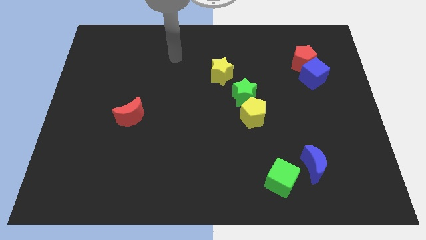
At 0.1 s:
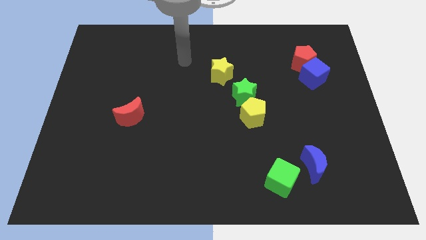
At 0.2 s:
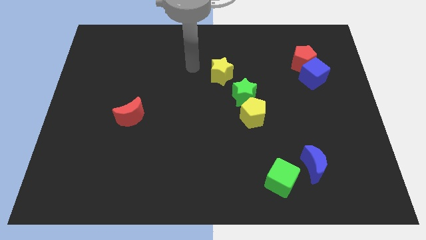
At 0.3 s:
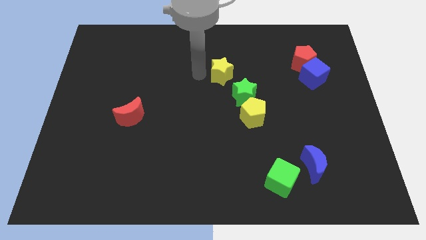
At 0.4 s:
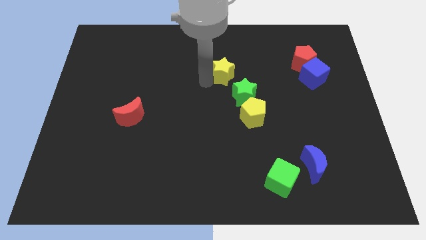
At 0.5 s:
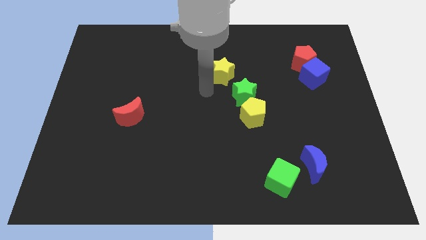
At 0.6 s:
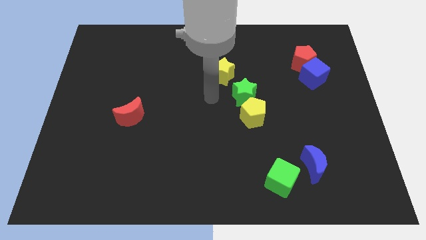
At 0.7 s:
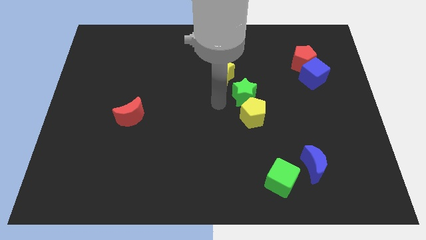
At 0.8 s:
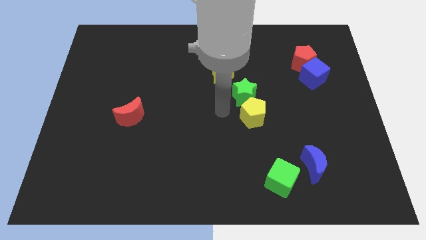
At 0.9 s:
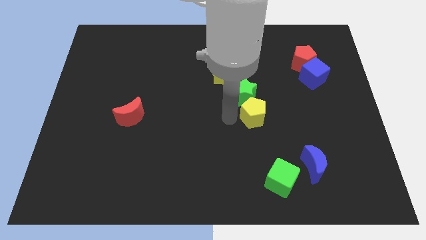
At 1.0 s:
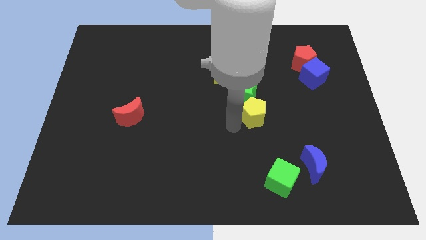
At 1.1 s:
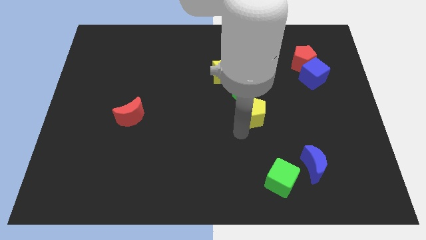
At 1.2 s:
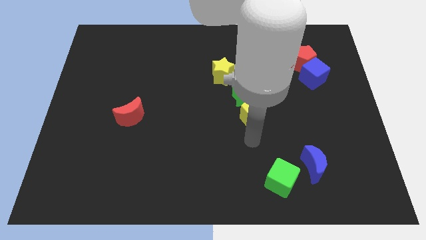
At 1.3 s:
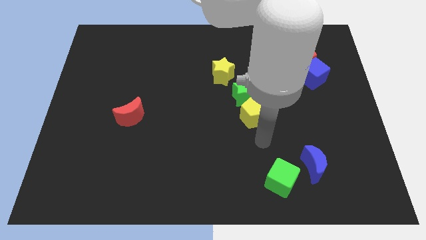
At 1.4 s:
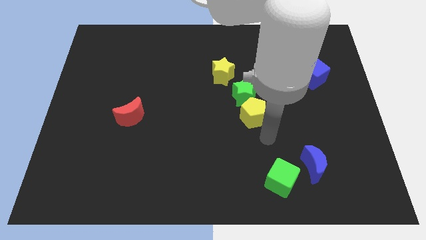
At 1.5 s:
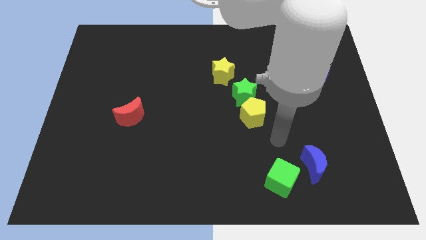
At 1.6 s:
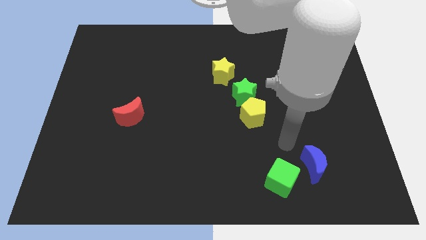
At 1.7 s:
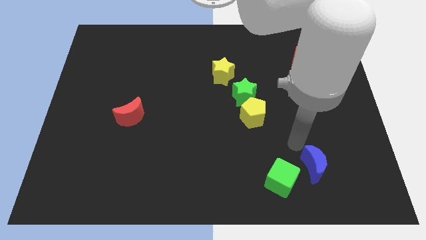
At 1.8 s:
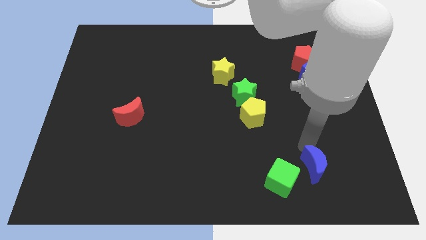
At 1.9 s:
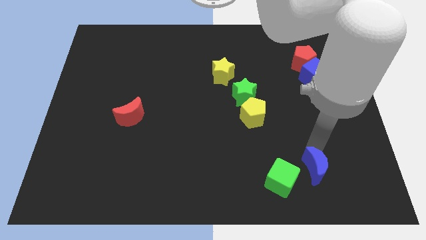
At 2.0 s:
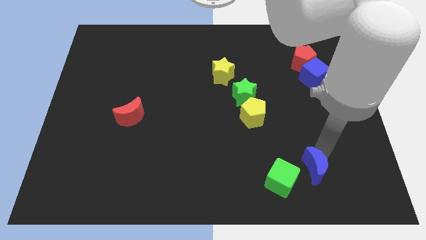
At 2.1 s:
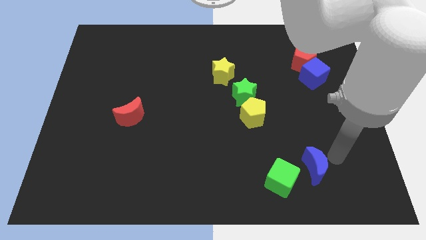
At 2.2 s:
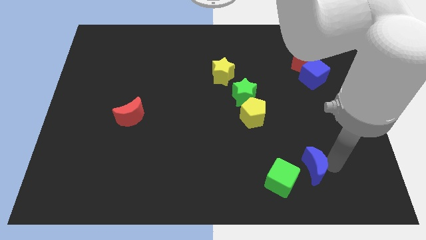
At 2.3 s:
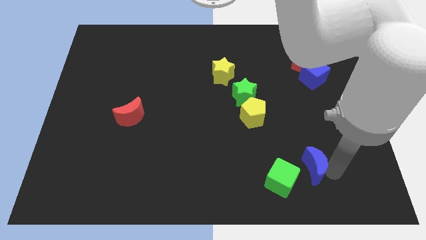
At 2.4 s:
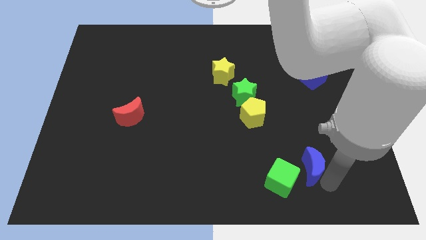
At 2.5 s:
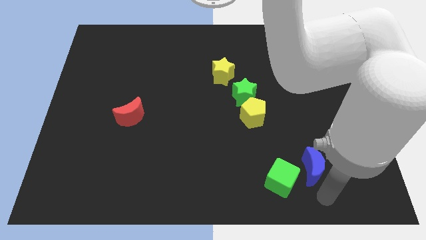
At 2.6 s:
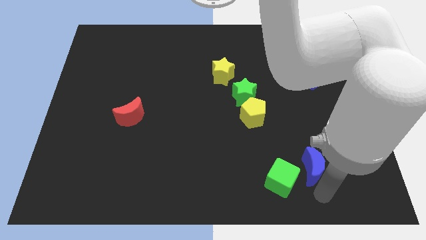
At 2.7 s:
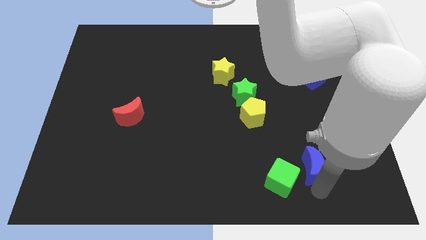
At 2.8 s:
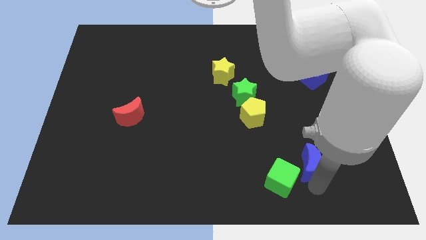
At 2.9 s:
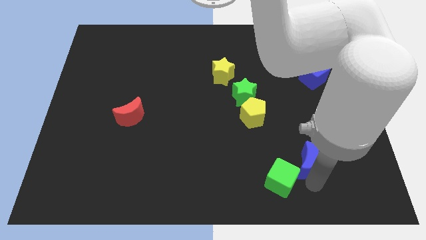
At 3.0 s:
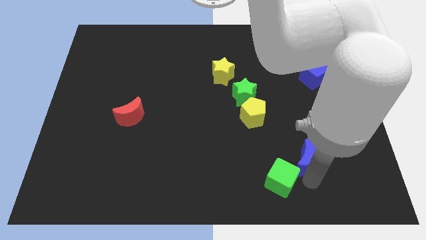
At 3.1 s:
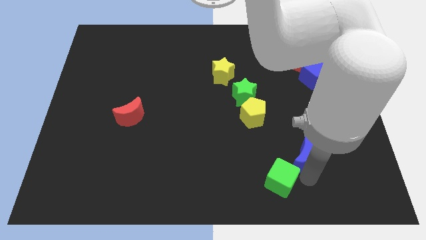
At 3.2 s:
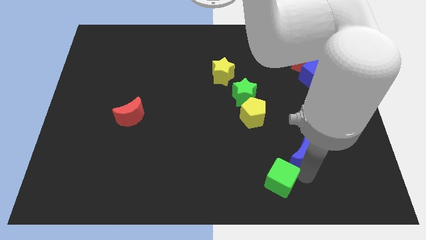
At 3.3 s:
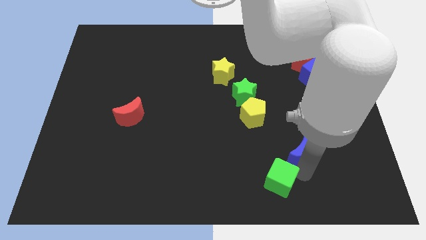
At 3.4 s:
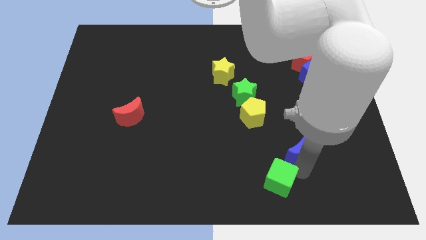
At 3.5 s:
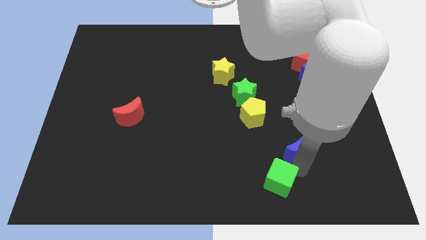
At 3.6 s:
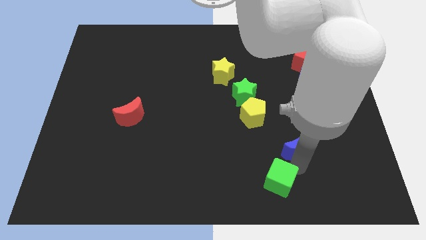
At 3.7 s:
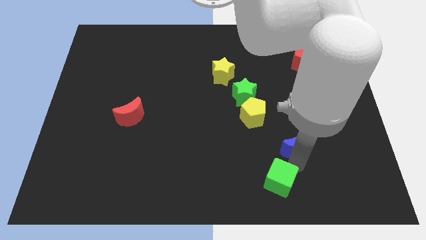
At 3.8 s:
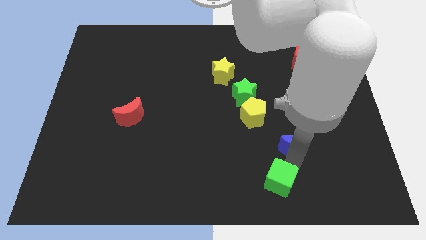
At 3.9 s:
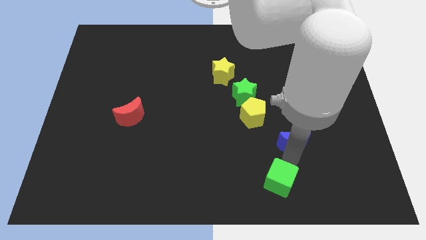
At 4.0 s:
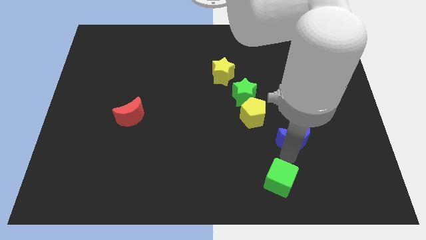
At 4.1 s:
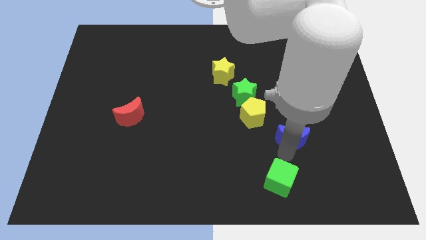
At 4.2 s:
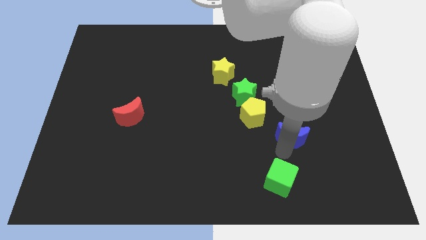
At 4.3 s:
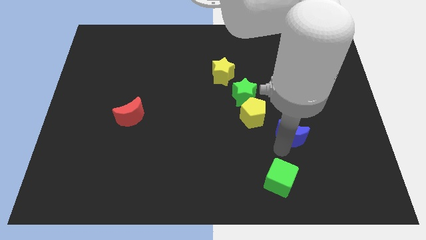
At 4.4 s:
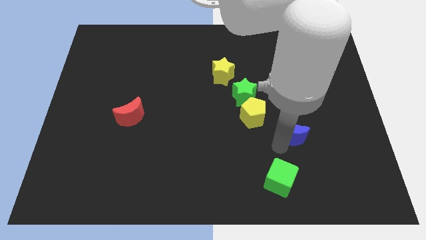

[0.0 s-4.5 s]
push the blue moon upwards somewhat

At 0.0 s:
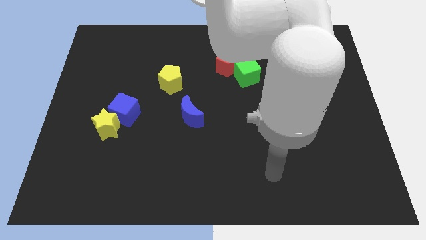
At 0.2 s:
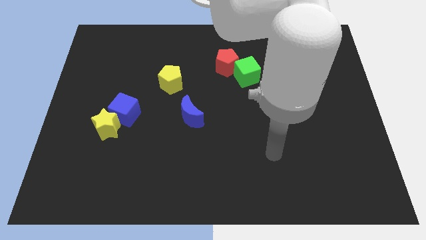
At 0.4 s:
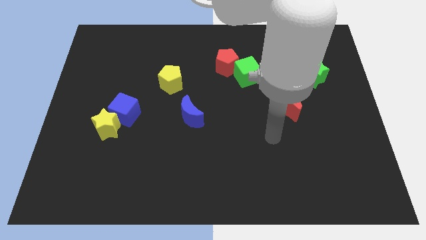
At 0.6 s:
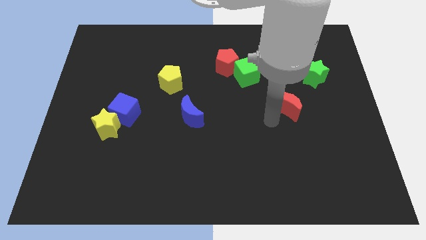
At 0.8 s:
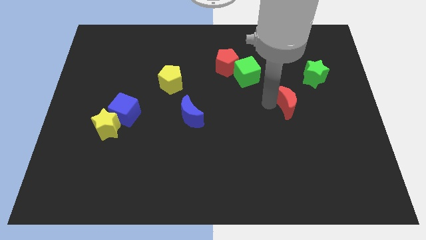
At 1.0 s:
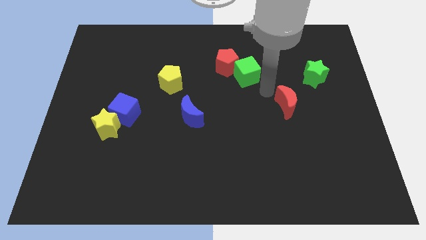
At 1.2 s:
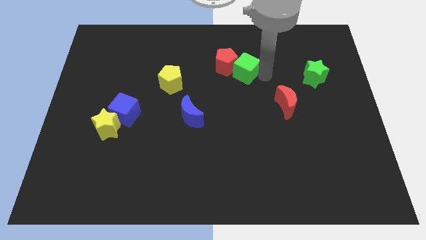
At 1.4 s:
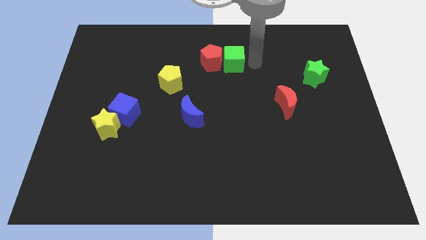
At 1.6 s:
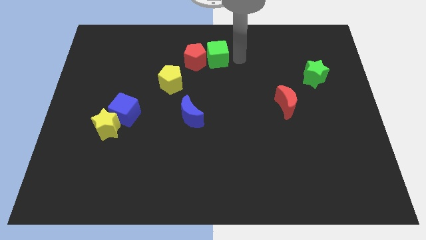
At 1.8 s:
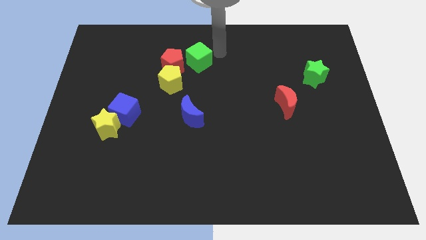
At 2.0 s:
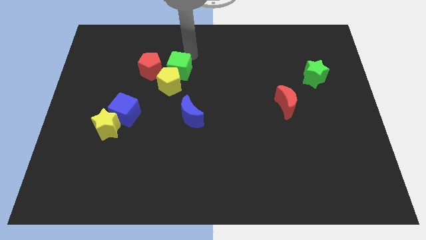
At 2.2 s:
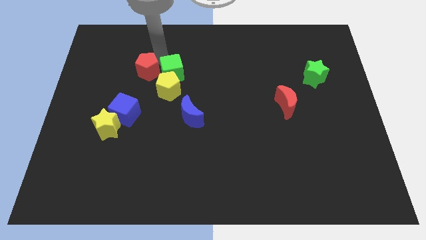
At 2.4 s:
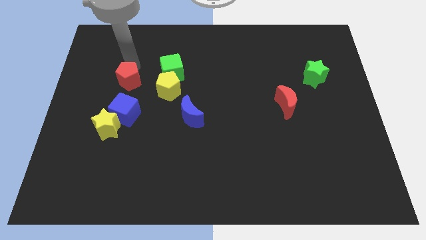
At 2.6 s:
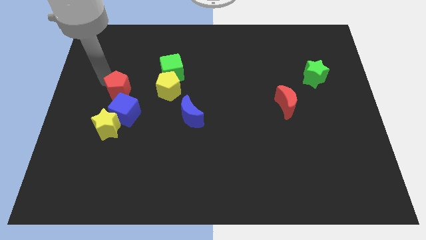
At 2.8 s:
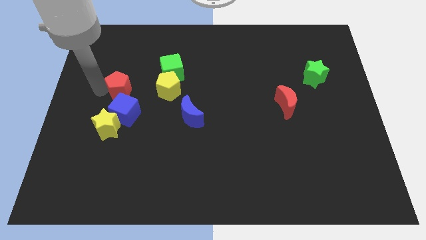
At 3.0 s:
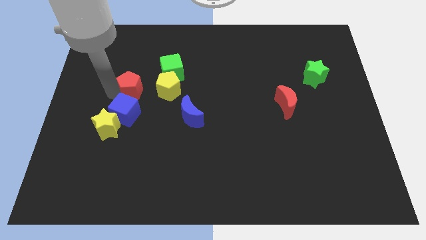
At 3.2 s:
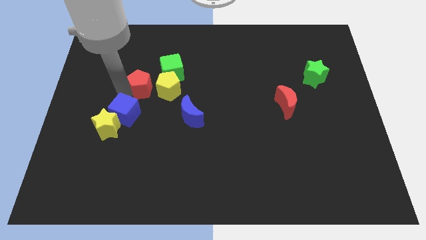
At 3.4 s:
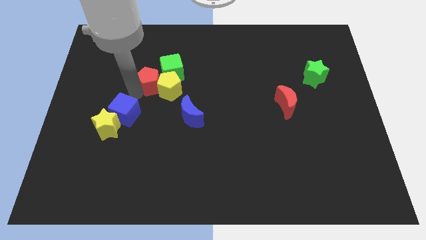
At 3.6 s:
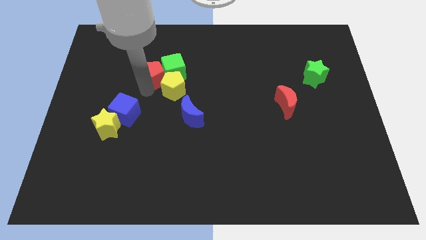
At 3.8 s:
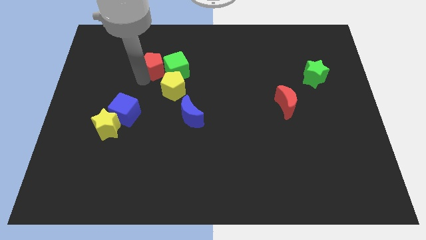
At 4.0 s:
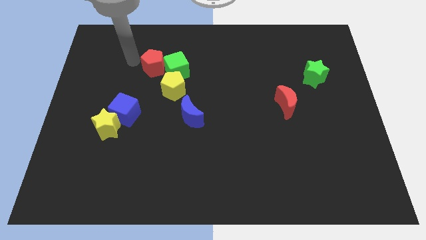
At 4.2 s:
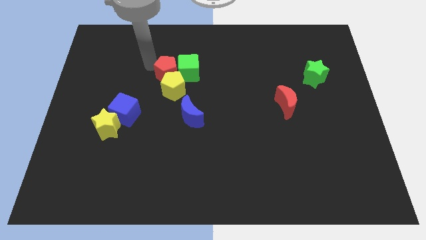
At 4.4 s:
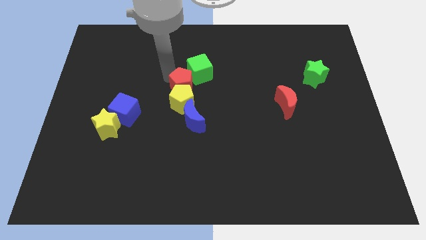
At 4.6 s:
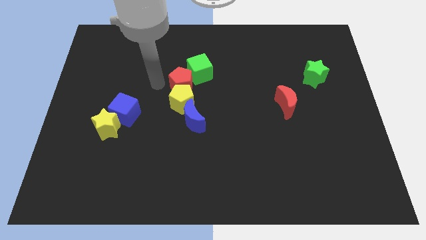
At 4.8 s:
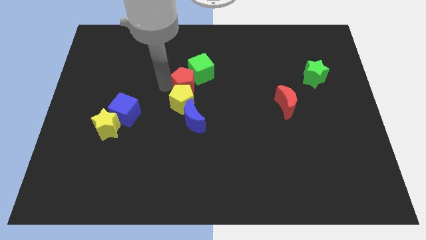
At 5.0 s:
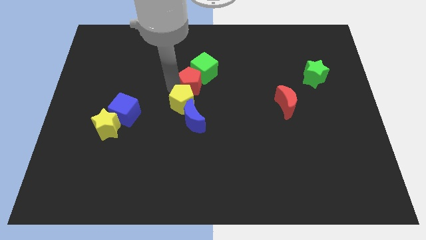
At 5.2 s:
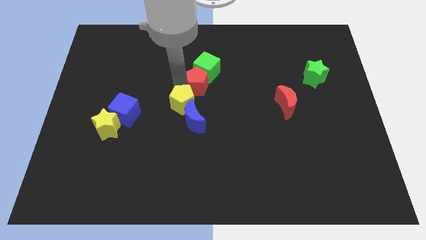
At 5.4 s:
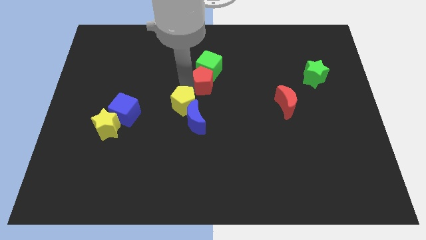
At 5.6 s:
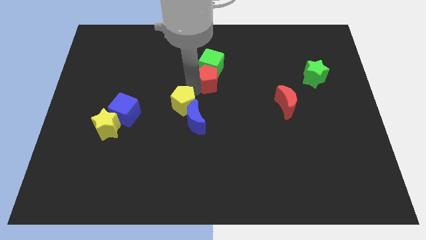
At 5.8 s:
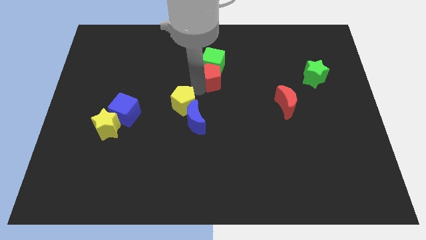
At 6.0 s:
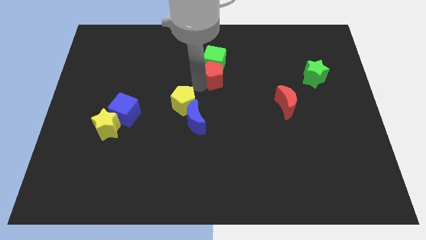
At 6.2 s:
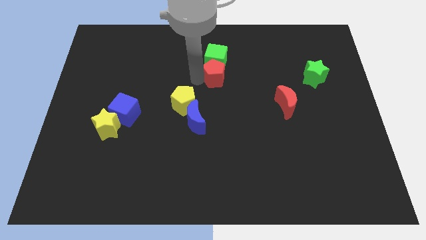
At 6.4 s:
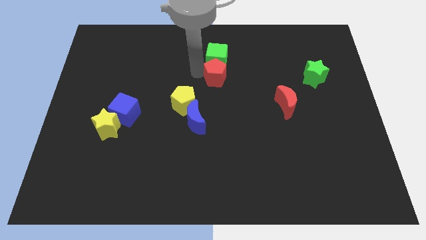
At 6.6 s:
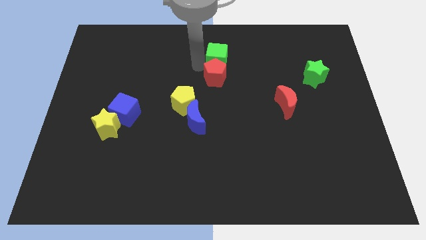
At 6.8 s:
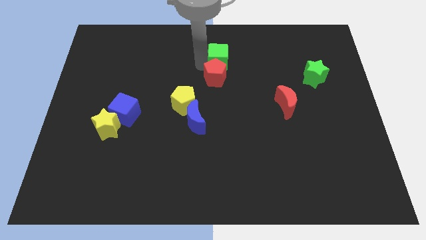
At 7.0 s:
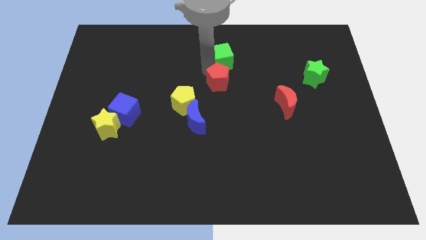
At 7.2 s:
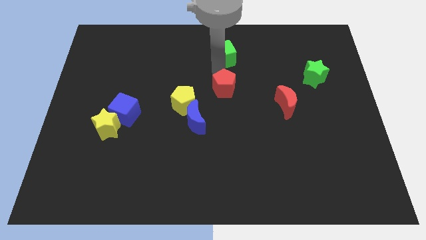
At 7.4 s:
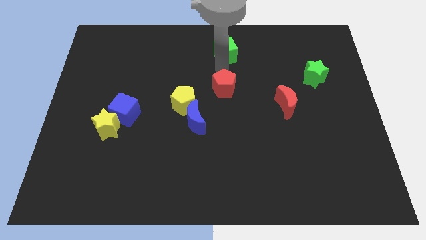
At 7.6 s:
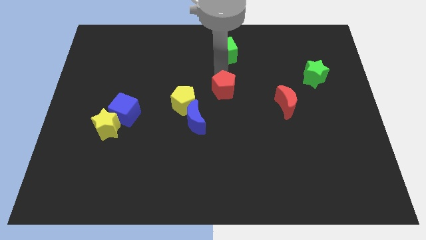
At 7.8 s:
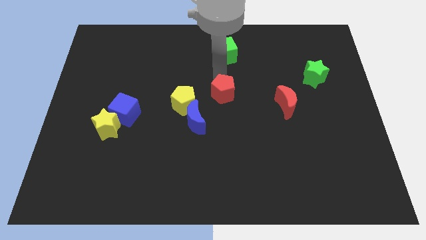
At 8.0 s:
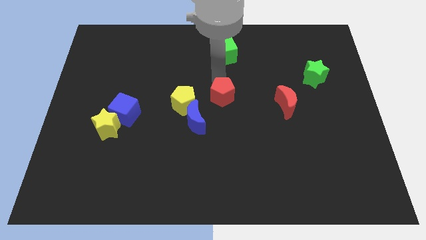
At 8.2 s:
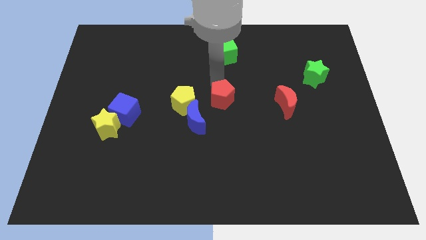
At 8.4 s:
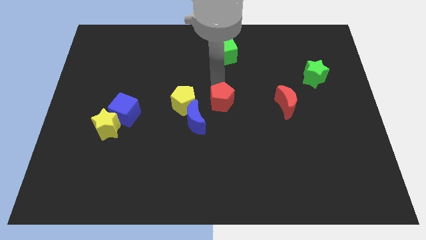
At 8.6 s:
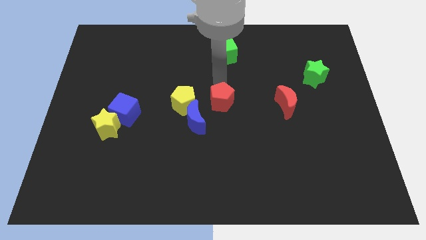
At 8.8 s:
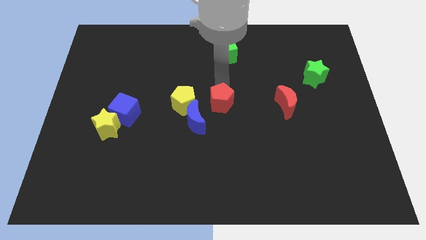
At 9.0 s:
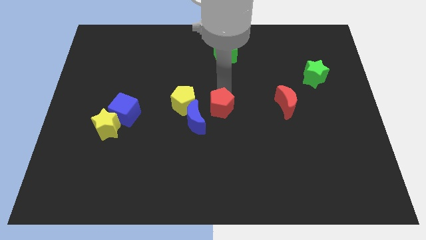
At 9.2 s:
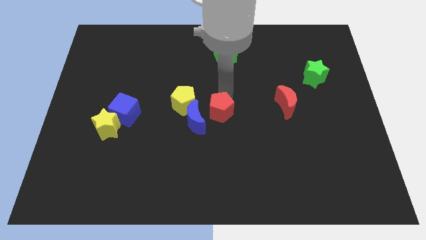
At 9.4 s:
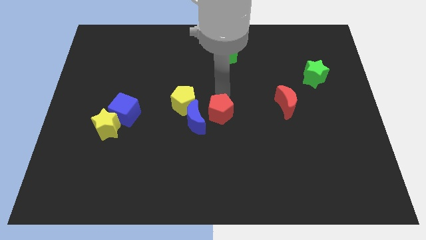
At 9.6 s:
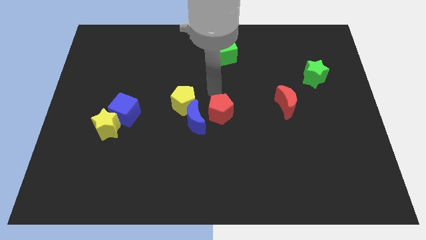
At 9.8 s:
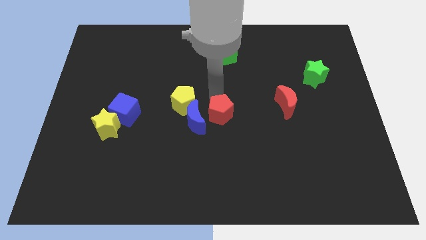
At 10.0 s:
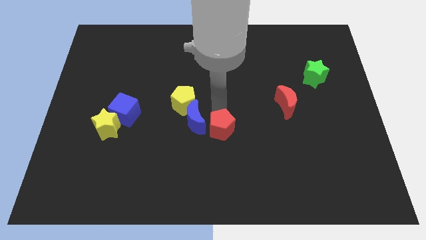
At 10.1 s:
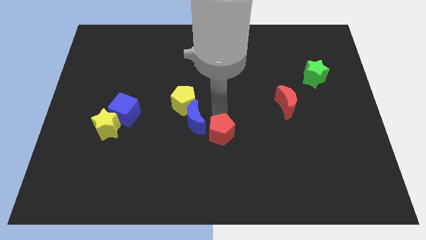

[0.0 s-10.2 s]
move the red pentagon down
